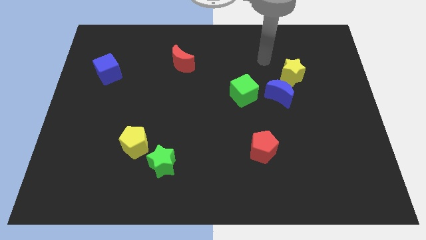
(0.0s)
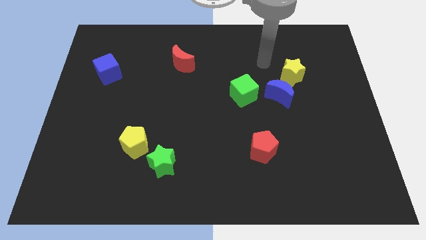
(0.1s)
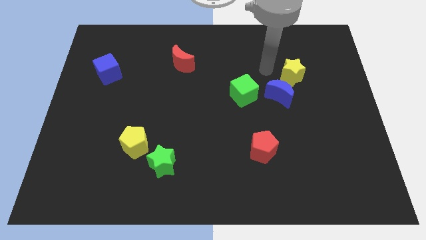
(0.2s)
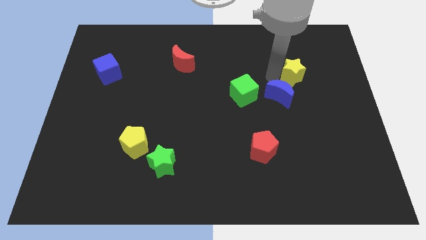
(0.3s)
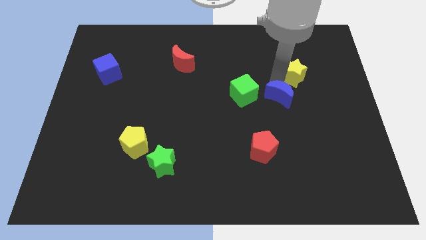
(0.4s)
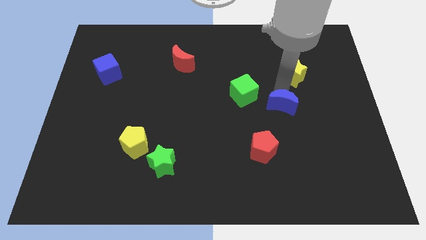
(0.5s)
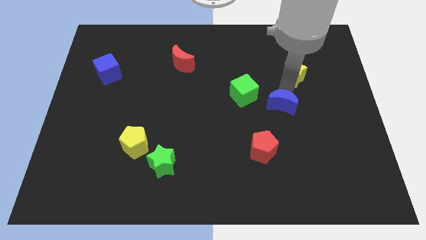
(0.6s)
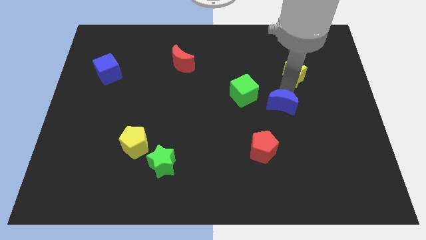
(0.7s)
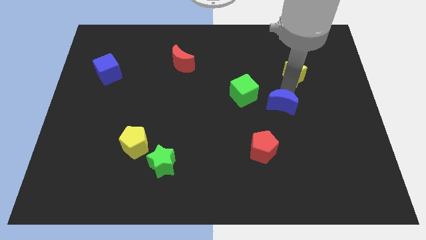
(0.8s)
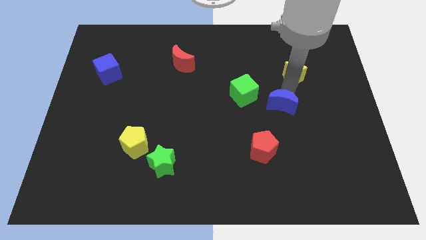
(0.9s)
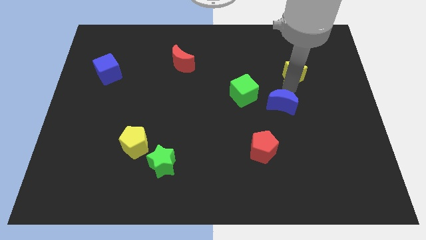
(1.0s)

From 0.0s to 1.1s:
separate the yellow star from the blue moon

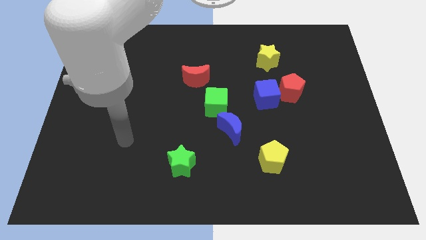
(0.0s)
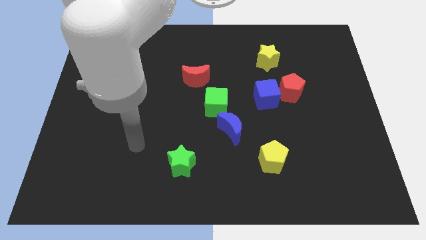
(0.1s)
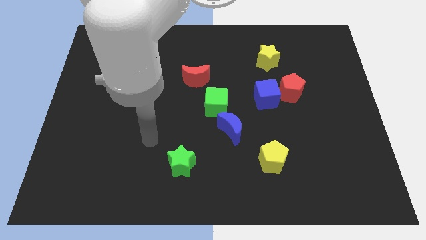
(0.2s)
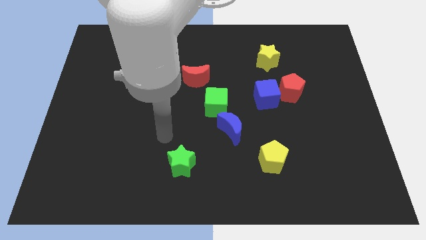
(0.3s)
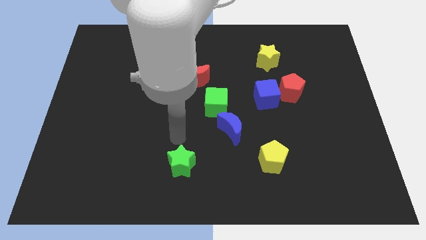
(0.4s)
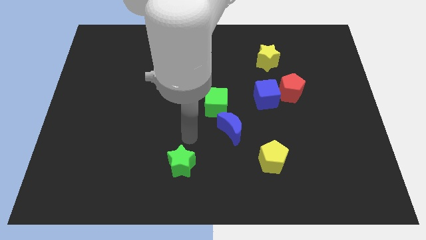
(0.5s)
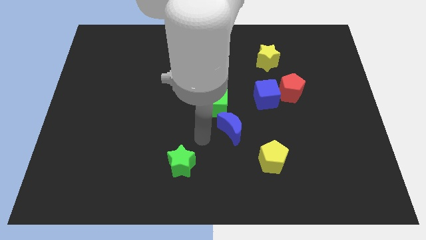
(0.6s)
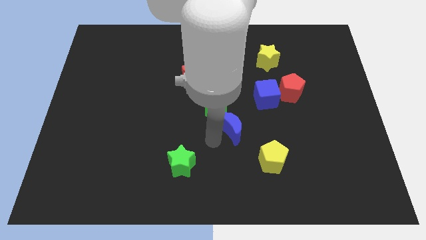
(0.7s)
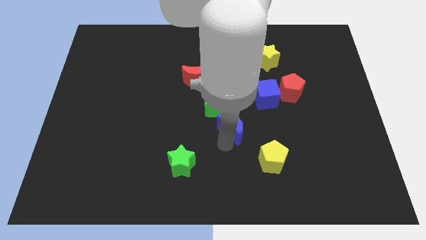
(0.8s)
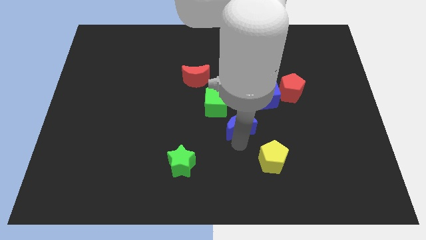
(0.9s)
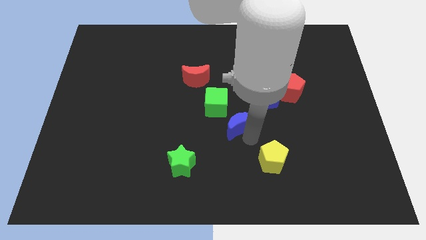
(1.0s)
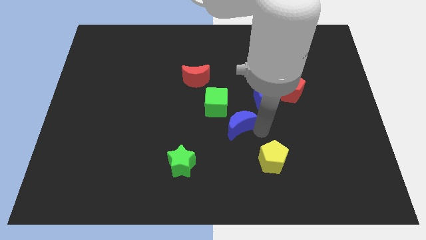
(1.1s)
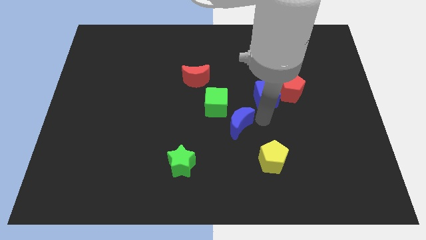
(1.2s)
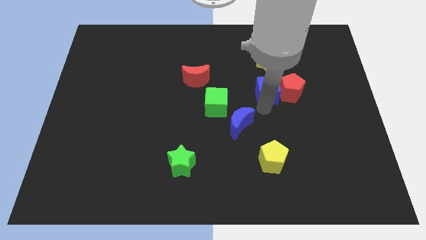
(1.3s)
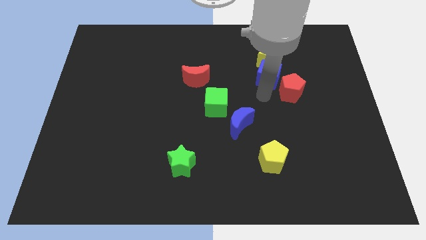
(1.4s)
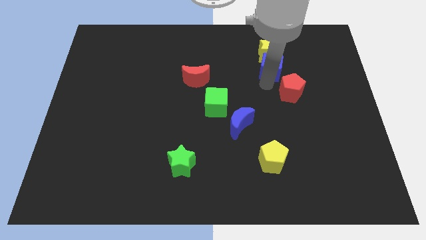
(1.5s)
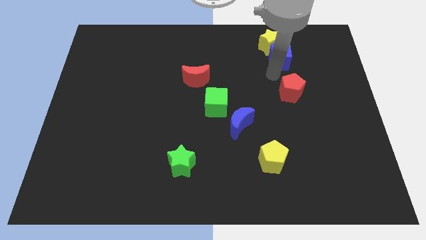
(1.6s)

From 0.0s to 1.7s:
separate the red pentagon from the blue cube

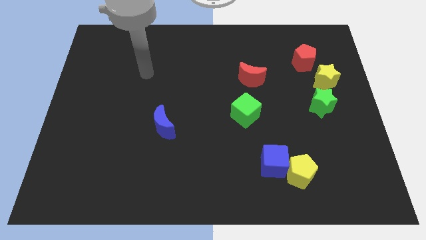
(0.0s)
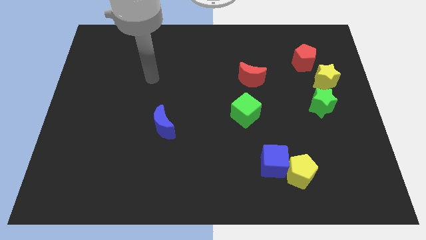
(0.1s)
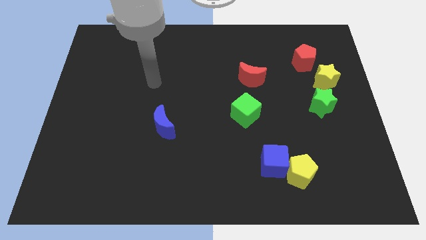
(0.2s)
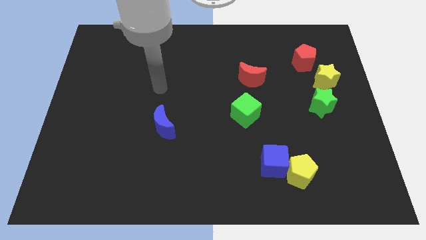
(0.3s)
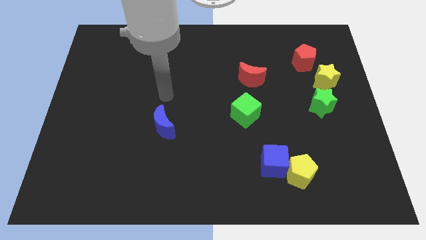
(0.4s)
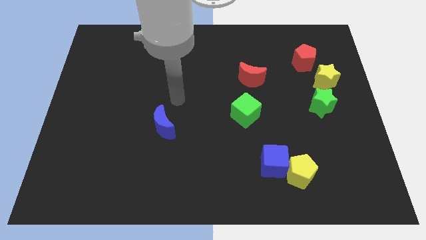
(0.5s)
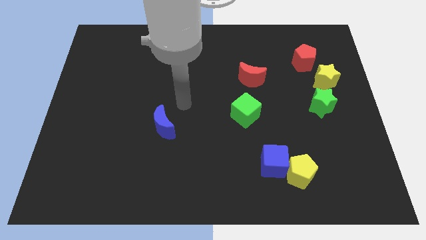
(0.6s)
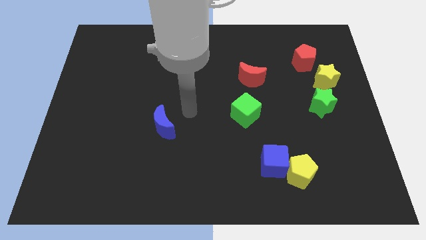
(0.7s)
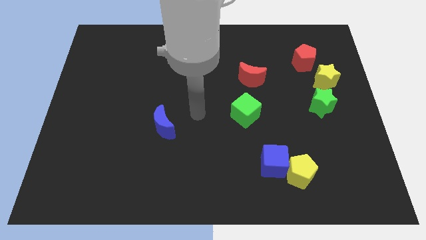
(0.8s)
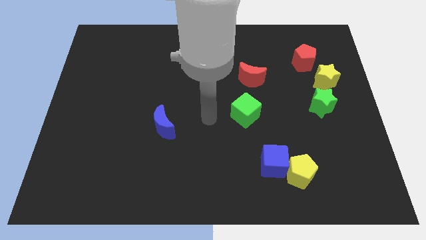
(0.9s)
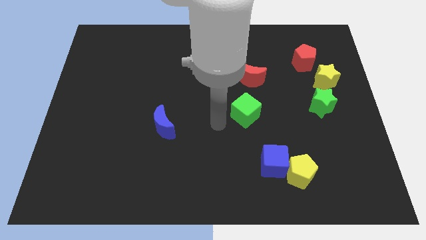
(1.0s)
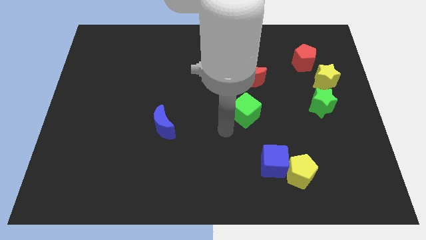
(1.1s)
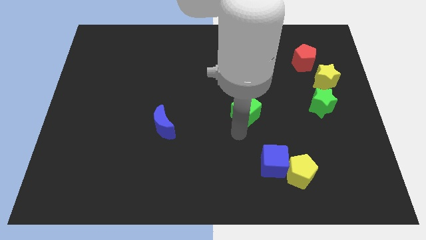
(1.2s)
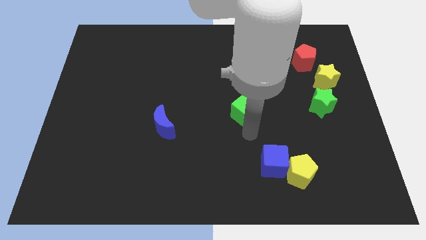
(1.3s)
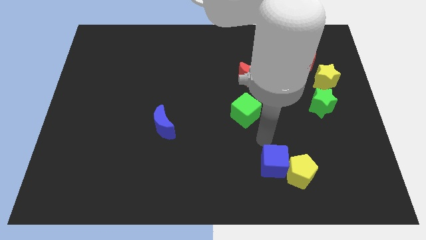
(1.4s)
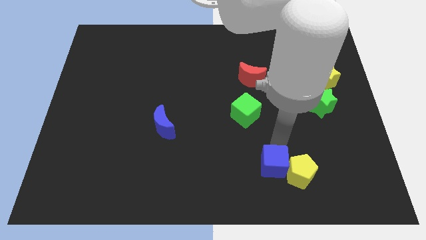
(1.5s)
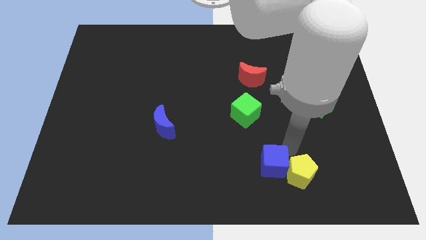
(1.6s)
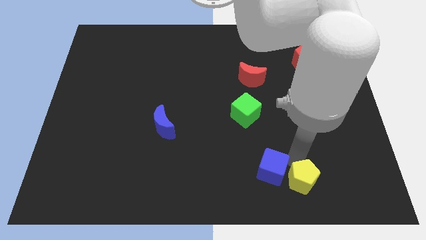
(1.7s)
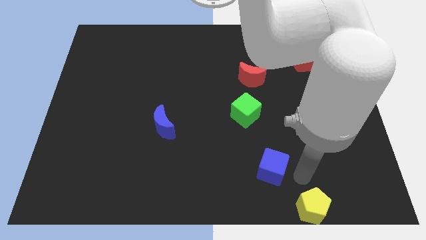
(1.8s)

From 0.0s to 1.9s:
separate the blue cube from the yellow pentagon

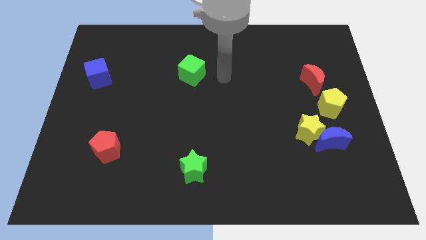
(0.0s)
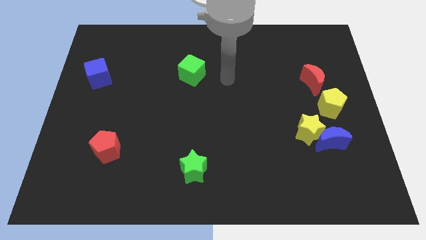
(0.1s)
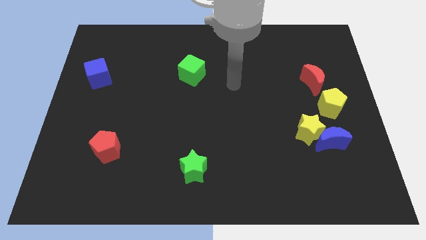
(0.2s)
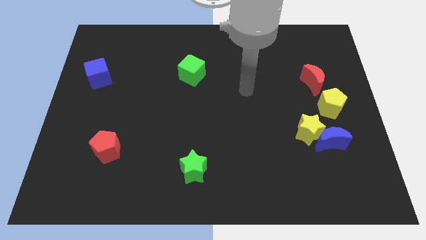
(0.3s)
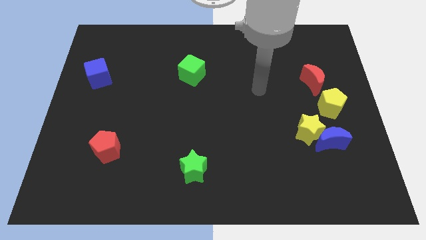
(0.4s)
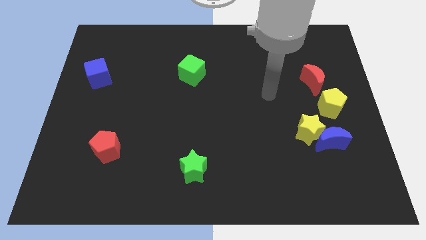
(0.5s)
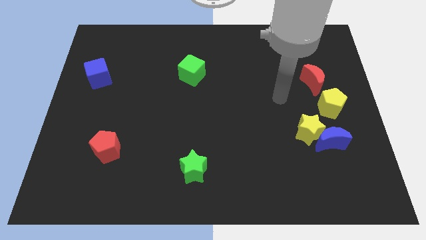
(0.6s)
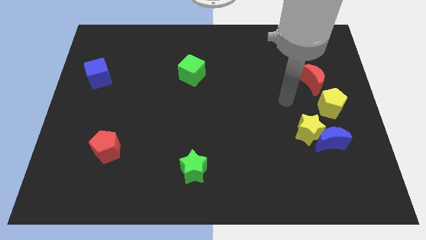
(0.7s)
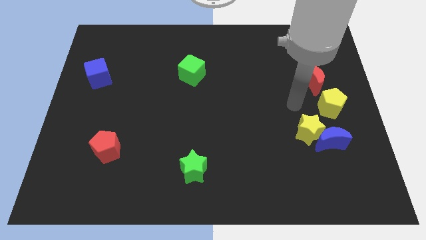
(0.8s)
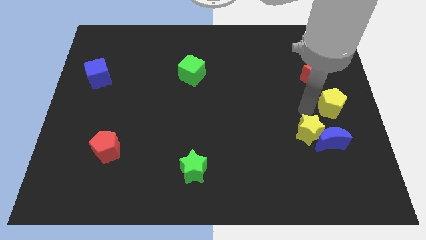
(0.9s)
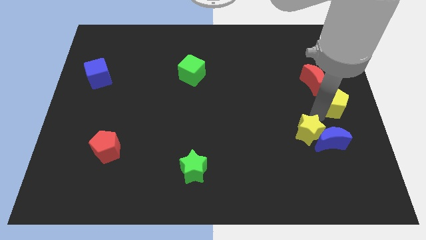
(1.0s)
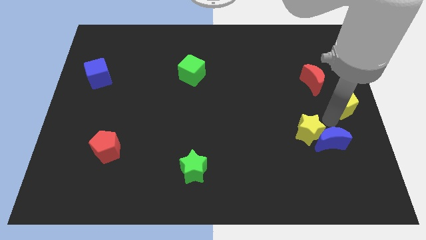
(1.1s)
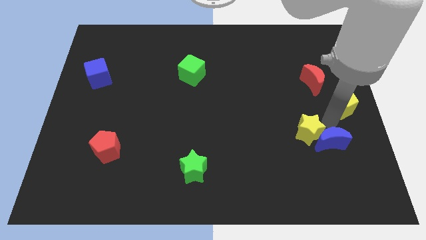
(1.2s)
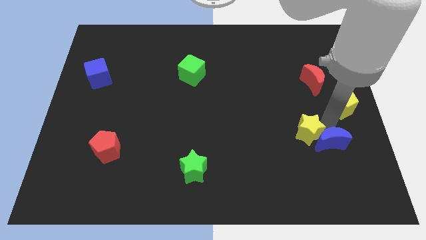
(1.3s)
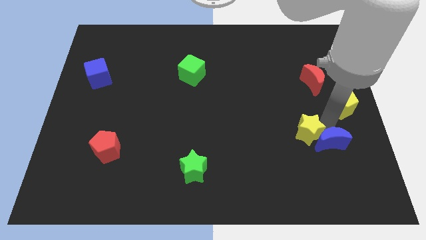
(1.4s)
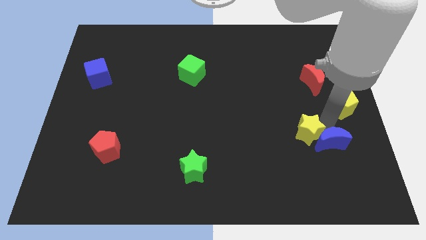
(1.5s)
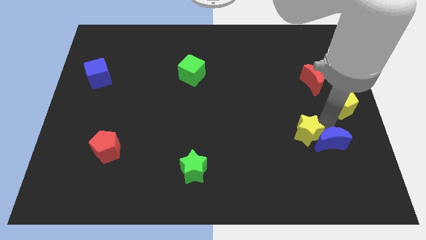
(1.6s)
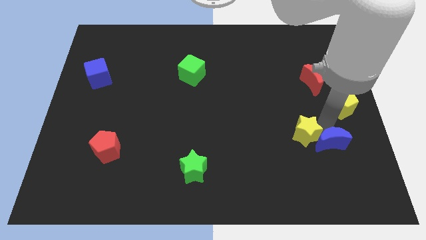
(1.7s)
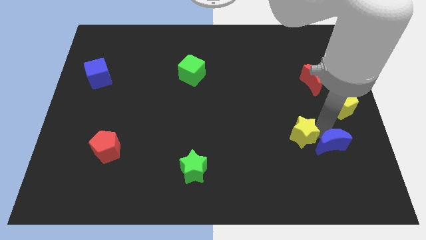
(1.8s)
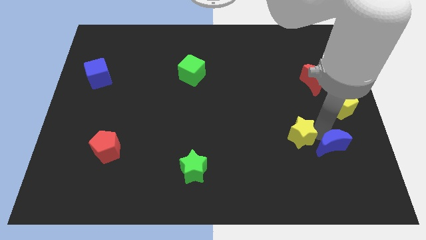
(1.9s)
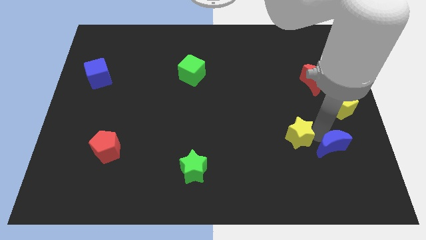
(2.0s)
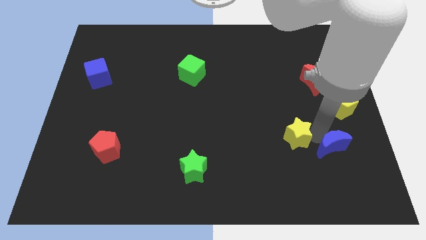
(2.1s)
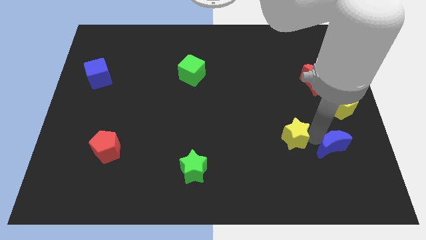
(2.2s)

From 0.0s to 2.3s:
separate the yellow star from the blue moon and yellow pentagon

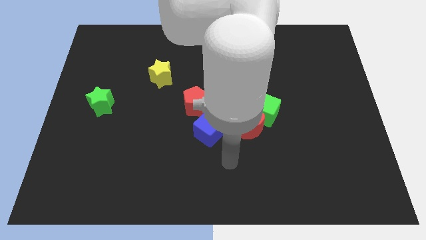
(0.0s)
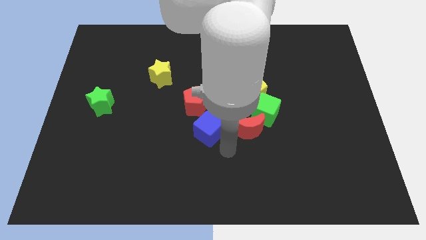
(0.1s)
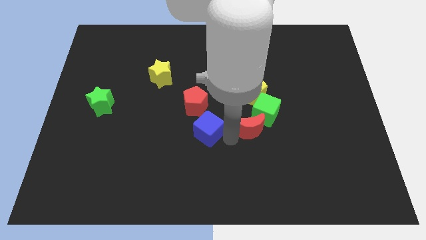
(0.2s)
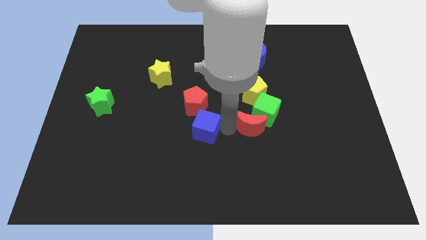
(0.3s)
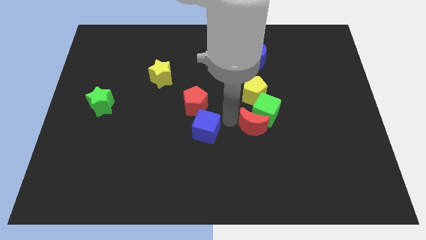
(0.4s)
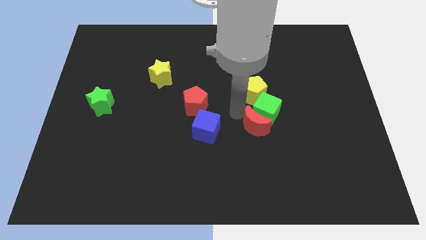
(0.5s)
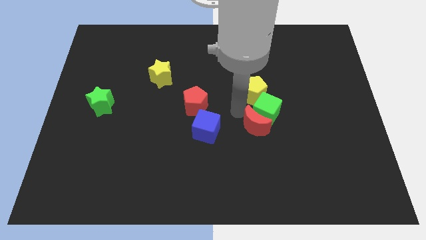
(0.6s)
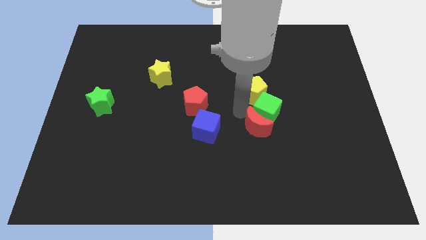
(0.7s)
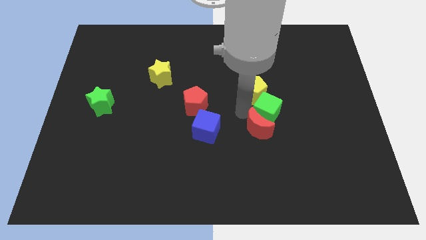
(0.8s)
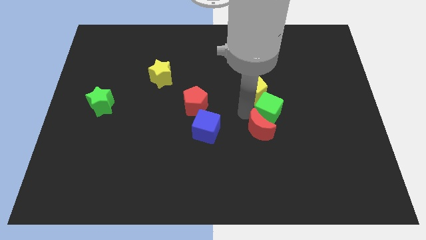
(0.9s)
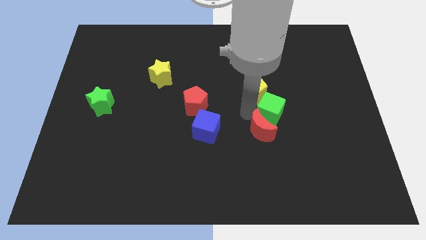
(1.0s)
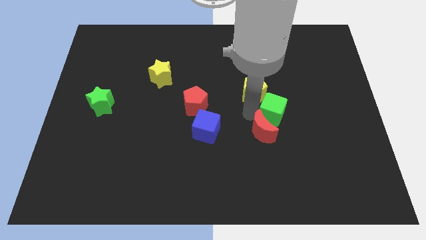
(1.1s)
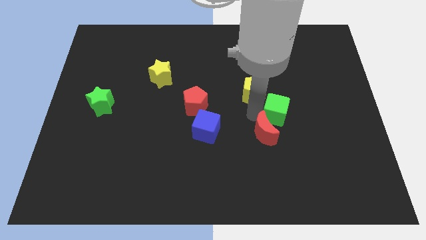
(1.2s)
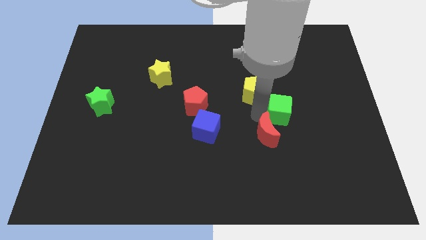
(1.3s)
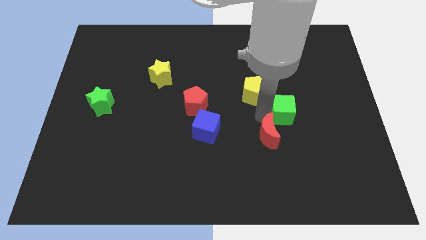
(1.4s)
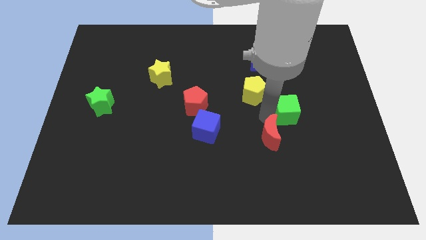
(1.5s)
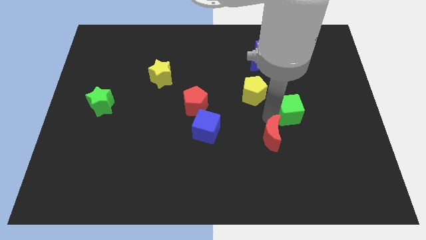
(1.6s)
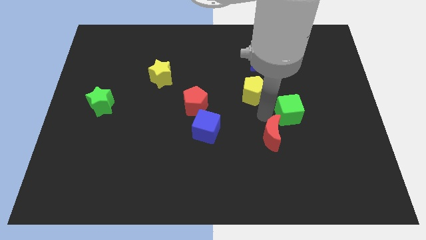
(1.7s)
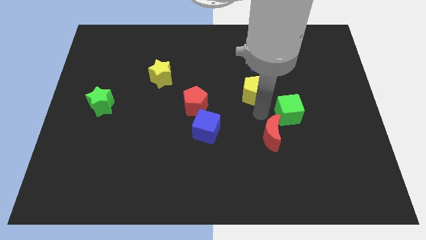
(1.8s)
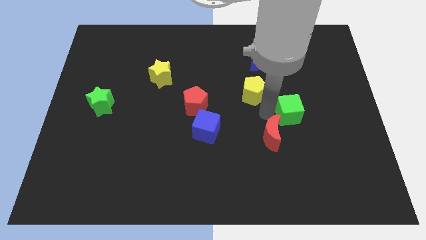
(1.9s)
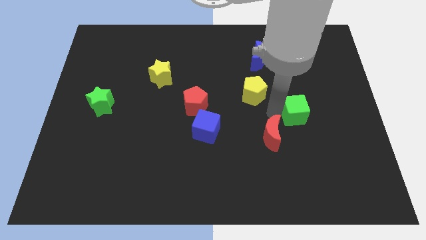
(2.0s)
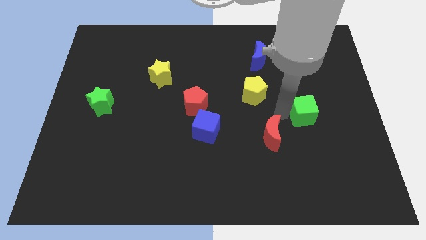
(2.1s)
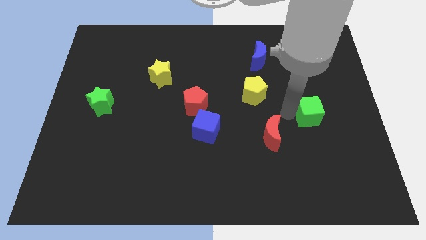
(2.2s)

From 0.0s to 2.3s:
pull the green cube apart from the red moon and yellow pentagon
